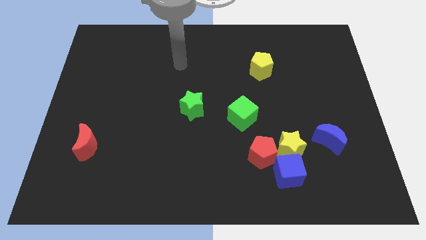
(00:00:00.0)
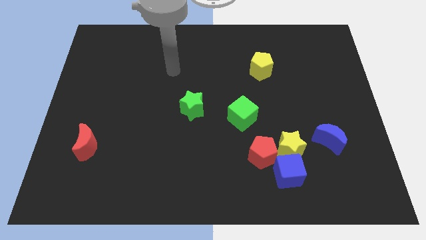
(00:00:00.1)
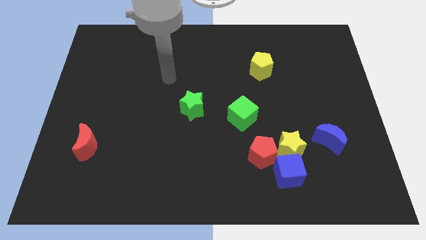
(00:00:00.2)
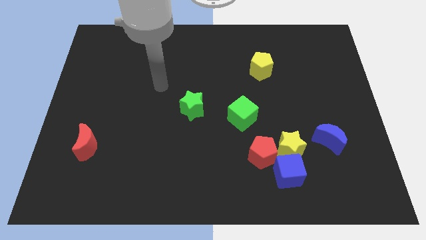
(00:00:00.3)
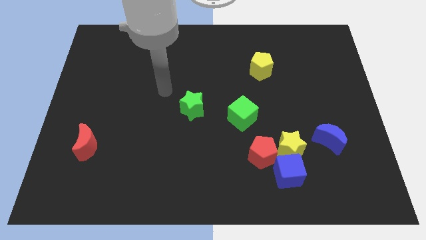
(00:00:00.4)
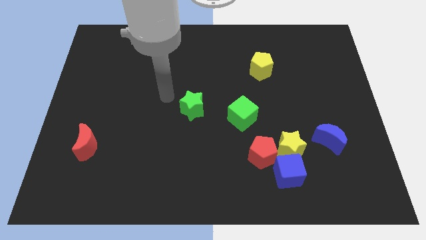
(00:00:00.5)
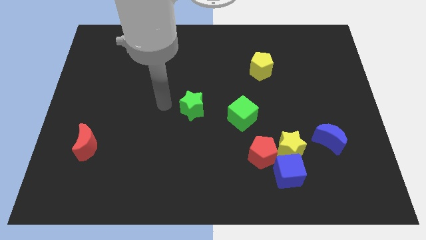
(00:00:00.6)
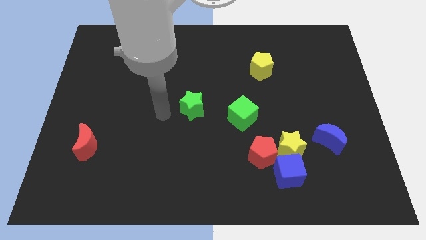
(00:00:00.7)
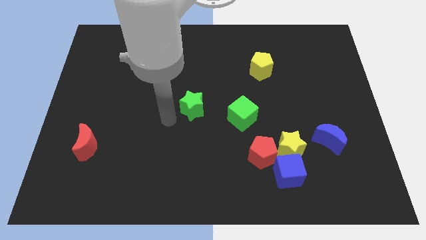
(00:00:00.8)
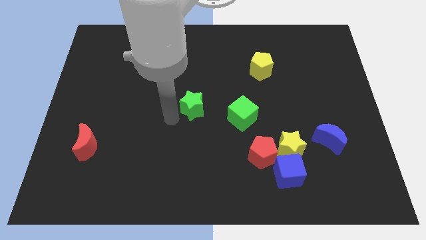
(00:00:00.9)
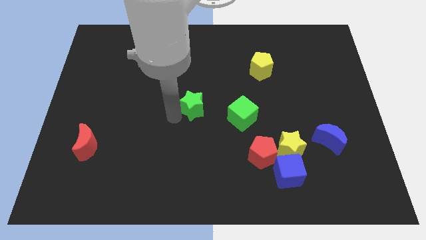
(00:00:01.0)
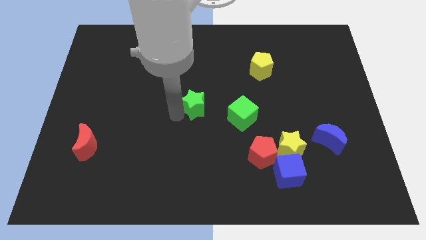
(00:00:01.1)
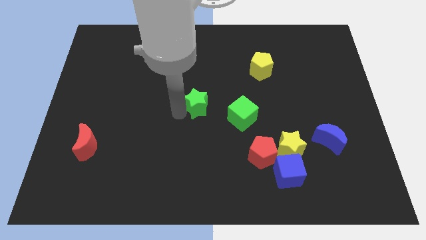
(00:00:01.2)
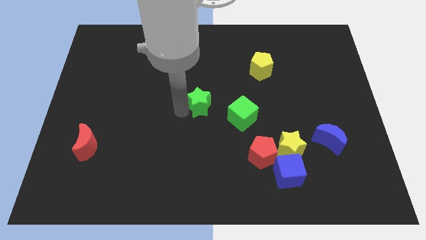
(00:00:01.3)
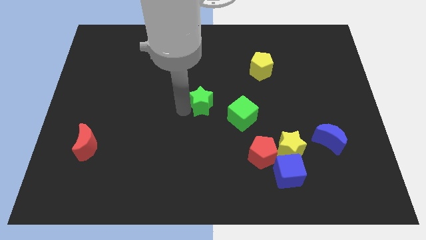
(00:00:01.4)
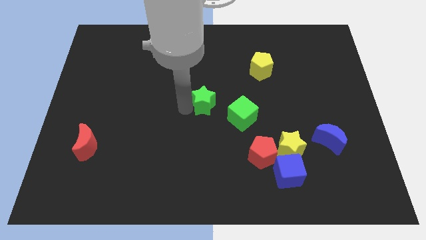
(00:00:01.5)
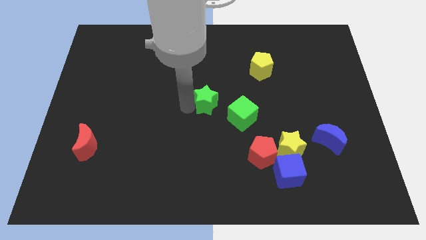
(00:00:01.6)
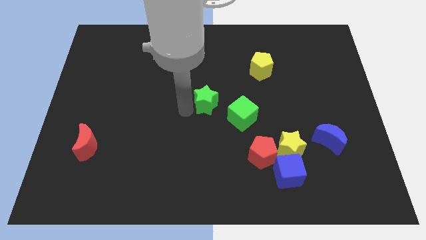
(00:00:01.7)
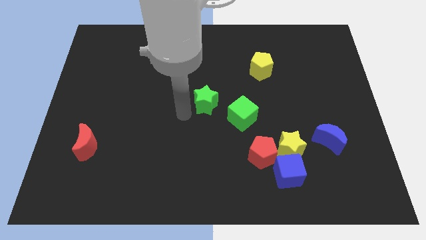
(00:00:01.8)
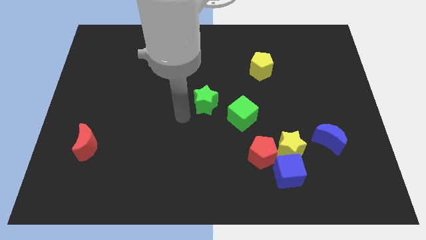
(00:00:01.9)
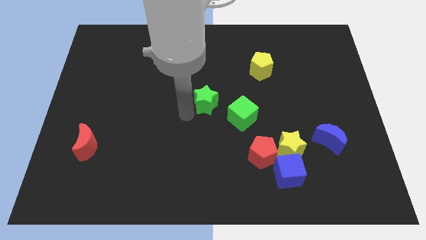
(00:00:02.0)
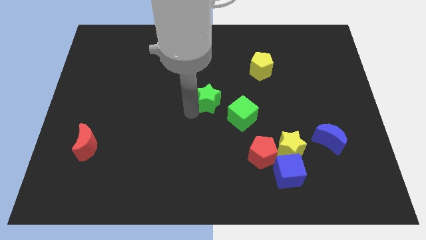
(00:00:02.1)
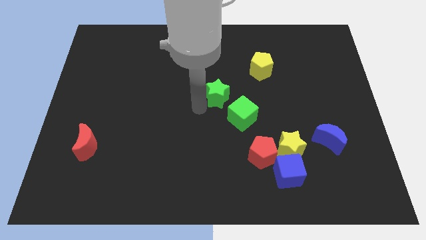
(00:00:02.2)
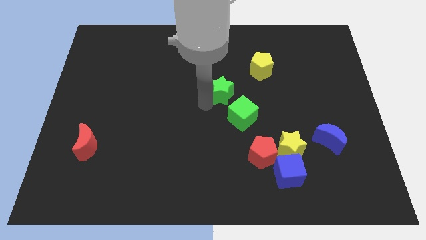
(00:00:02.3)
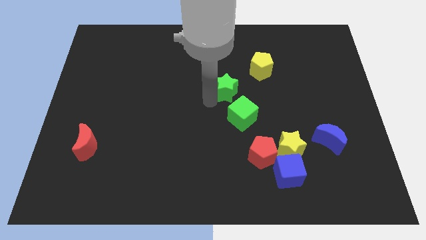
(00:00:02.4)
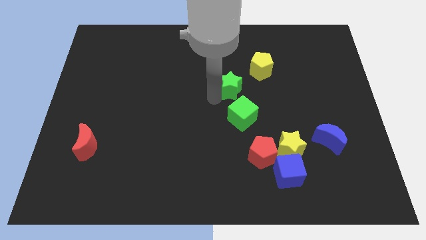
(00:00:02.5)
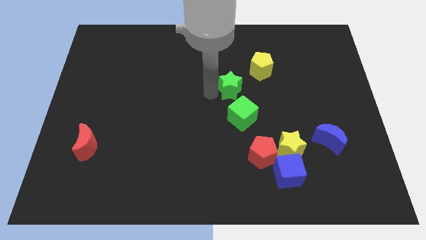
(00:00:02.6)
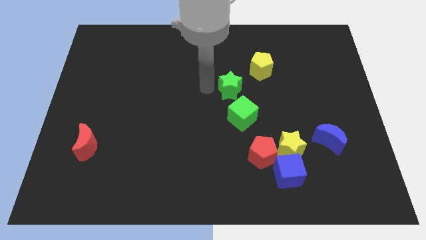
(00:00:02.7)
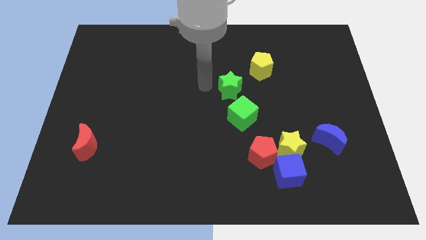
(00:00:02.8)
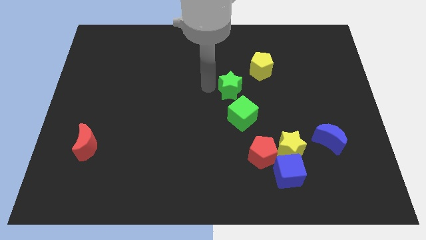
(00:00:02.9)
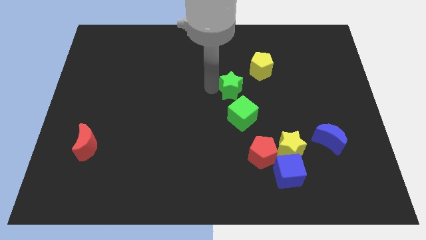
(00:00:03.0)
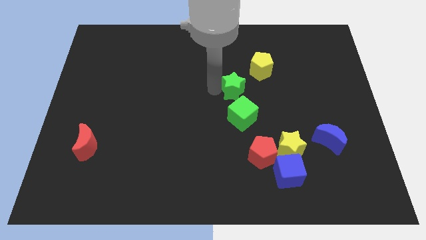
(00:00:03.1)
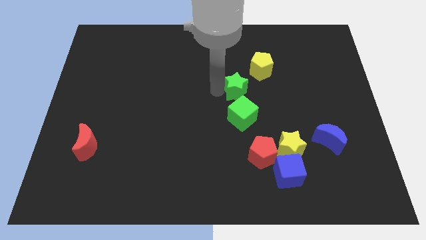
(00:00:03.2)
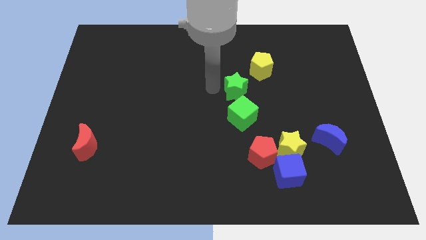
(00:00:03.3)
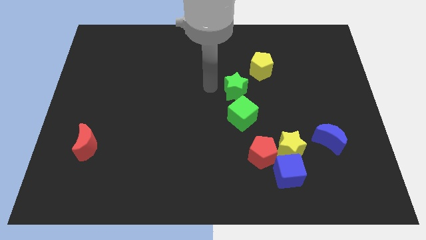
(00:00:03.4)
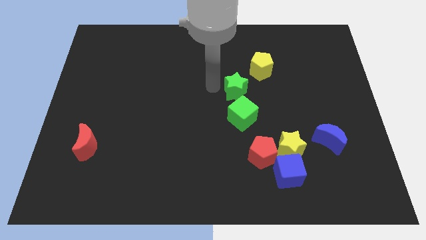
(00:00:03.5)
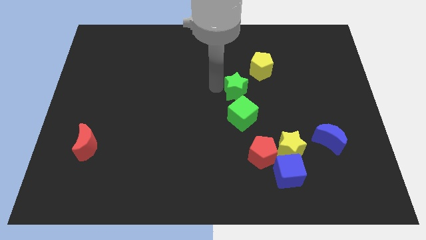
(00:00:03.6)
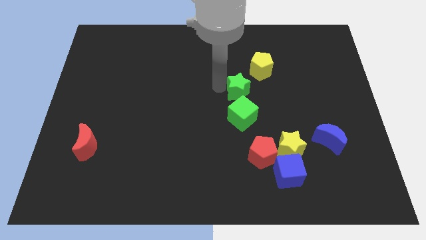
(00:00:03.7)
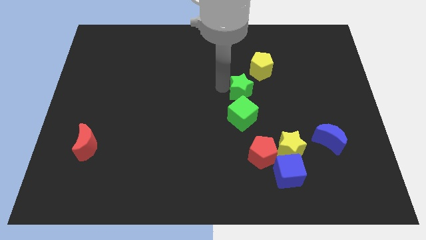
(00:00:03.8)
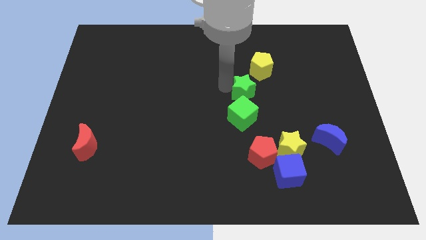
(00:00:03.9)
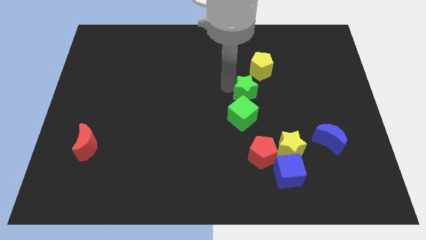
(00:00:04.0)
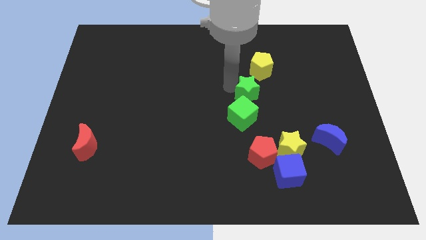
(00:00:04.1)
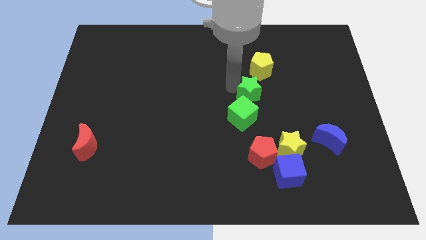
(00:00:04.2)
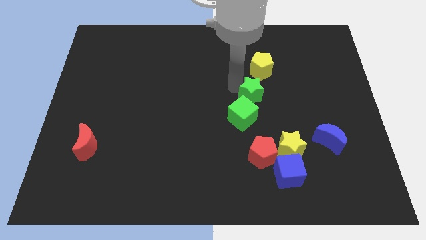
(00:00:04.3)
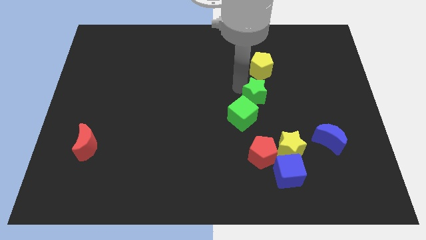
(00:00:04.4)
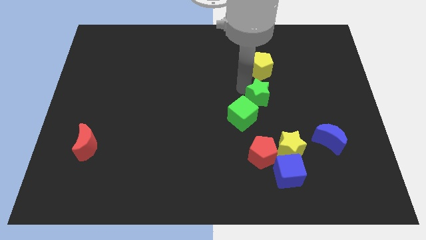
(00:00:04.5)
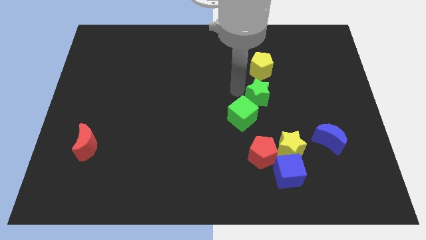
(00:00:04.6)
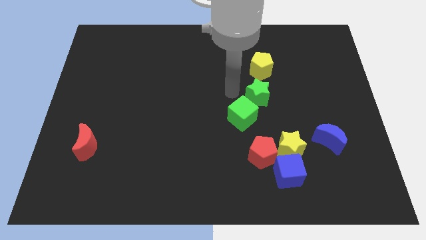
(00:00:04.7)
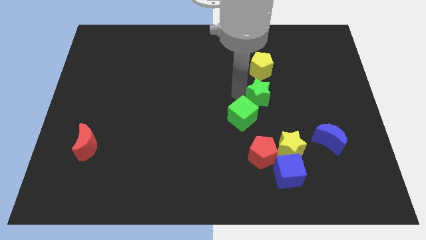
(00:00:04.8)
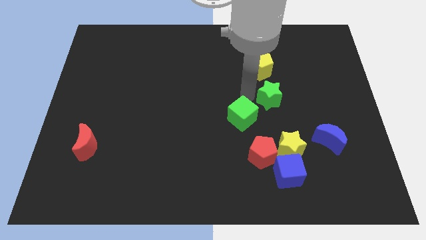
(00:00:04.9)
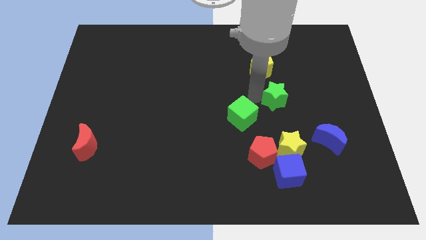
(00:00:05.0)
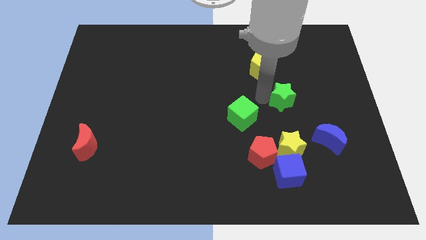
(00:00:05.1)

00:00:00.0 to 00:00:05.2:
move the green star right

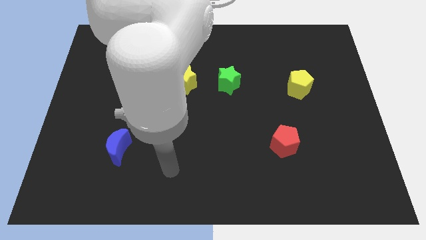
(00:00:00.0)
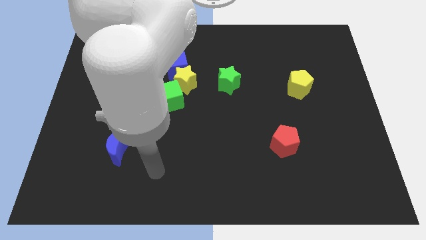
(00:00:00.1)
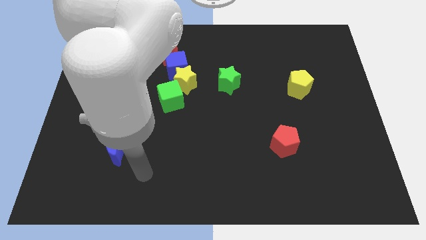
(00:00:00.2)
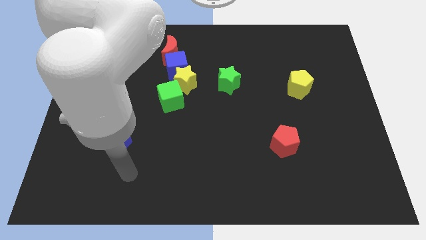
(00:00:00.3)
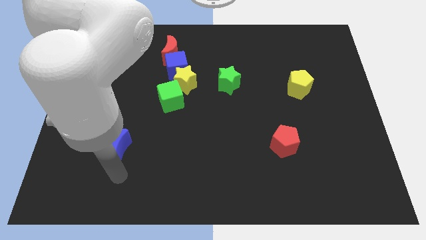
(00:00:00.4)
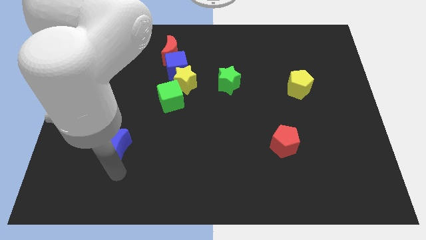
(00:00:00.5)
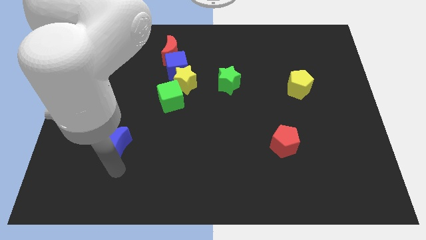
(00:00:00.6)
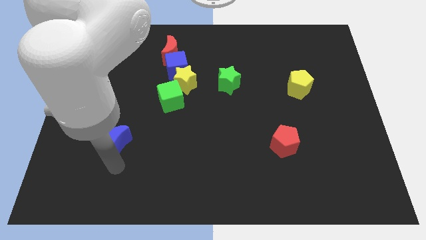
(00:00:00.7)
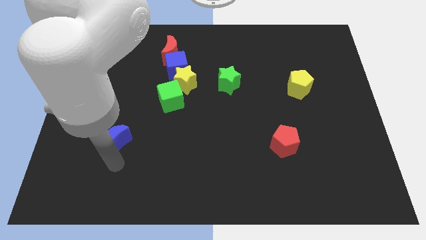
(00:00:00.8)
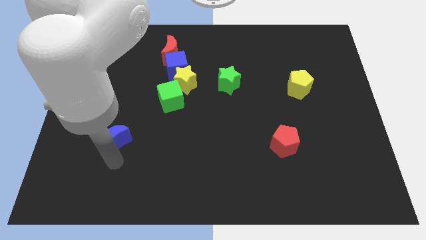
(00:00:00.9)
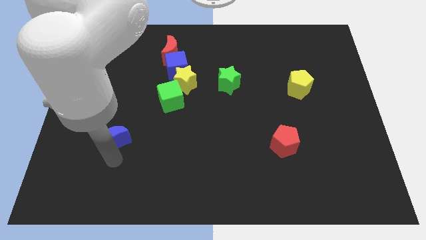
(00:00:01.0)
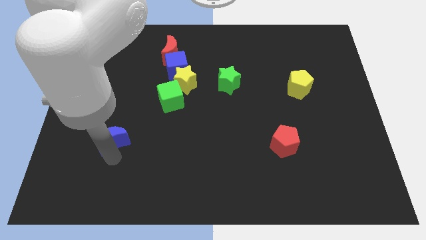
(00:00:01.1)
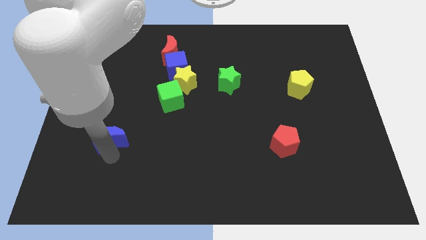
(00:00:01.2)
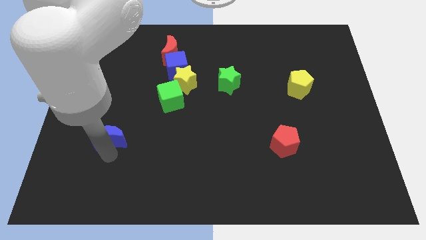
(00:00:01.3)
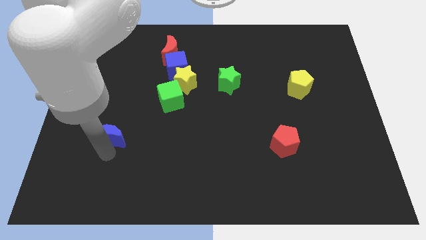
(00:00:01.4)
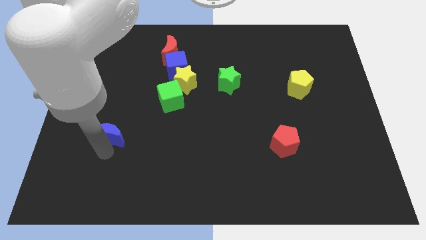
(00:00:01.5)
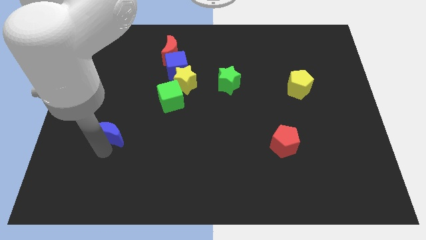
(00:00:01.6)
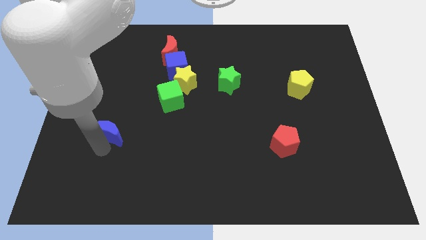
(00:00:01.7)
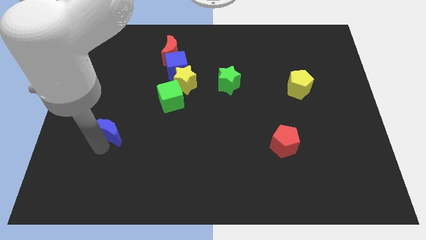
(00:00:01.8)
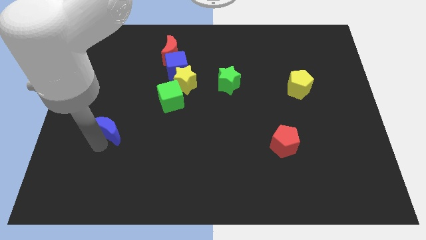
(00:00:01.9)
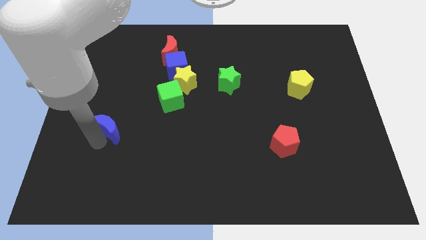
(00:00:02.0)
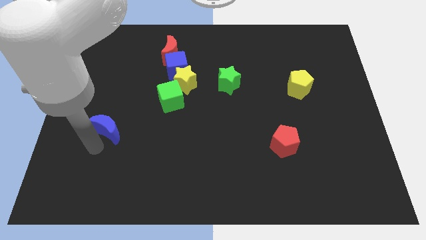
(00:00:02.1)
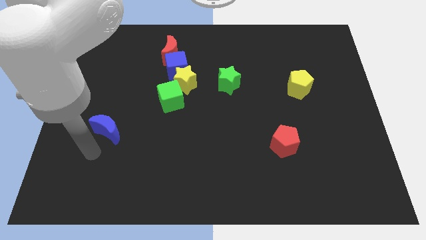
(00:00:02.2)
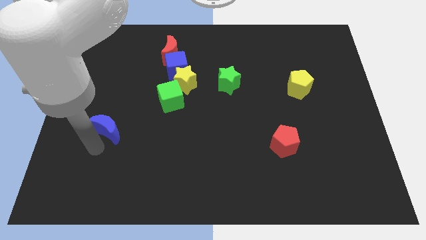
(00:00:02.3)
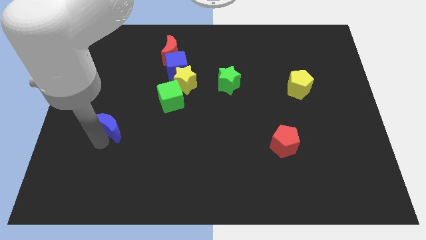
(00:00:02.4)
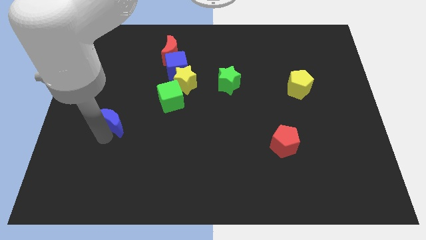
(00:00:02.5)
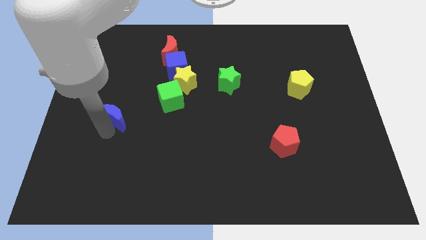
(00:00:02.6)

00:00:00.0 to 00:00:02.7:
slide the blue moon upwards a bit
